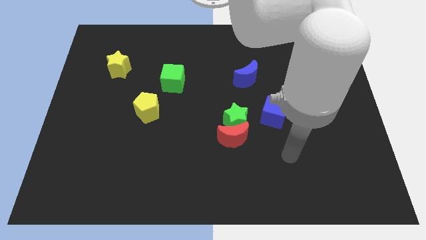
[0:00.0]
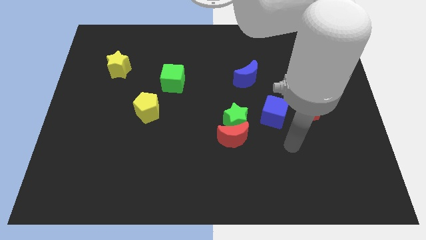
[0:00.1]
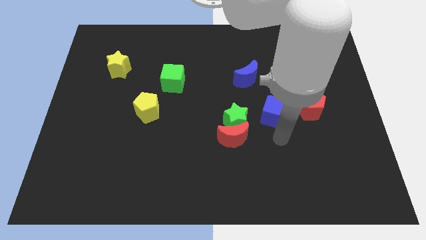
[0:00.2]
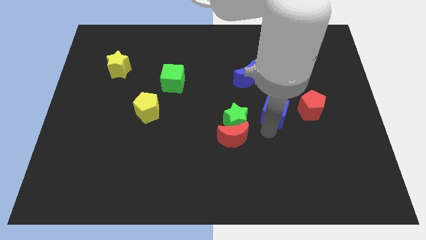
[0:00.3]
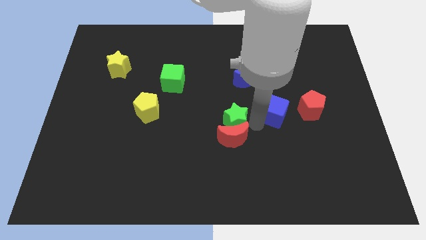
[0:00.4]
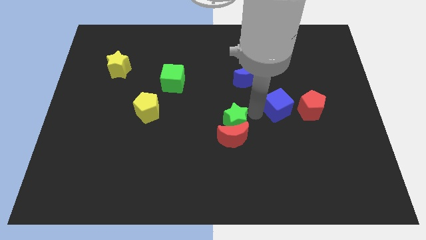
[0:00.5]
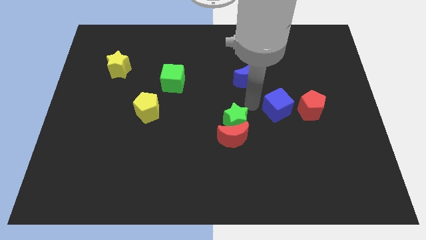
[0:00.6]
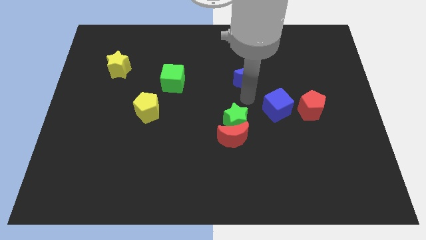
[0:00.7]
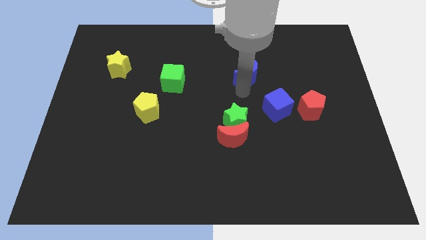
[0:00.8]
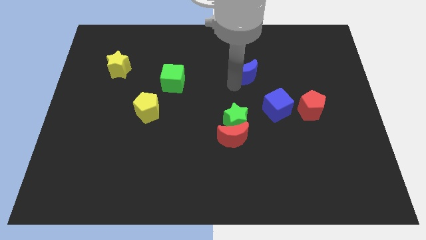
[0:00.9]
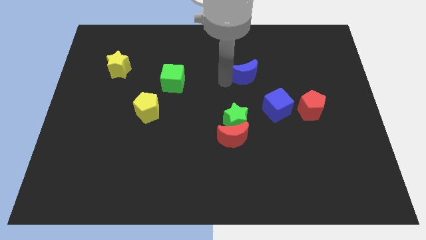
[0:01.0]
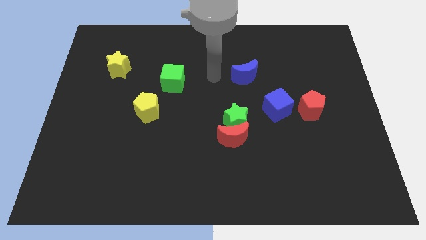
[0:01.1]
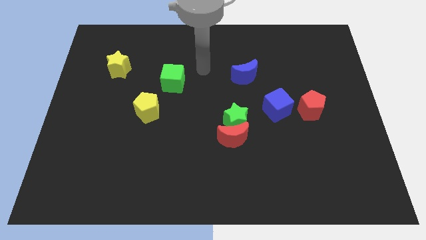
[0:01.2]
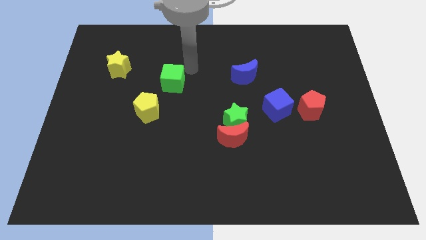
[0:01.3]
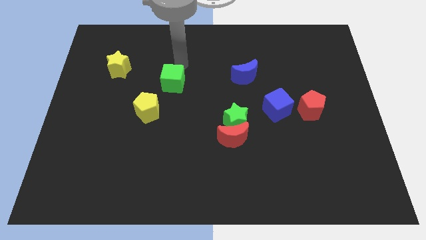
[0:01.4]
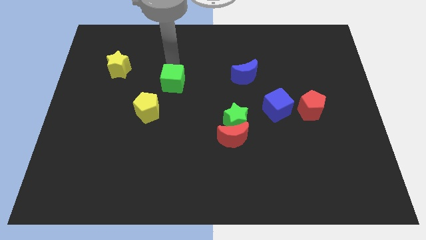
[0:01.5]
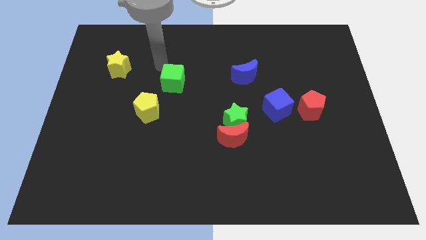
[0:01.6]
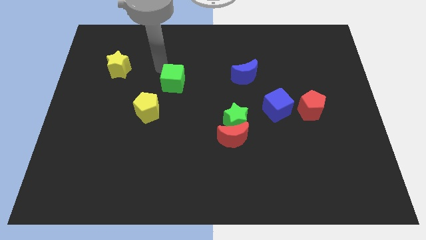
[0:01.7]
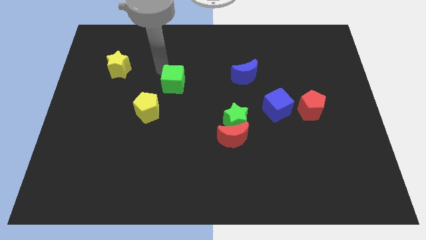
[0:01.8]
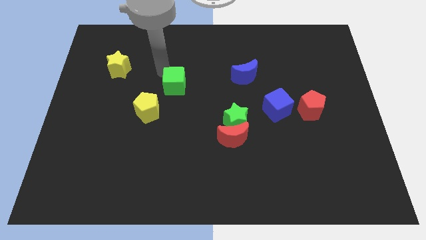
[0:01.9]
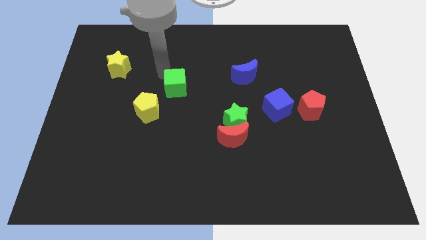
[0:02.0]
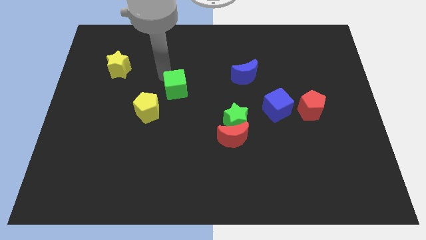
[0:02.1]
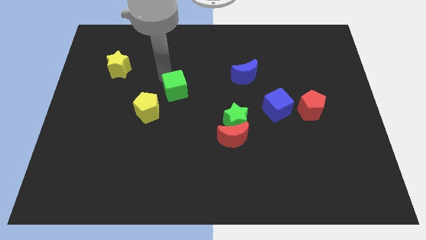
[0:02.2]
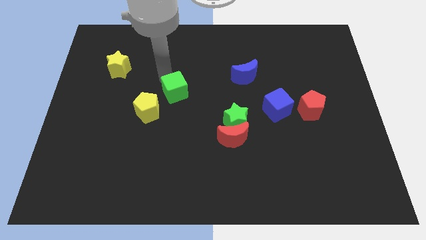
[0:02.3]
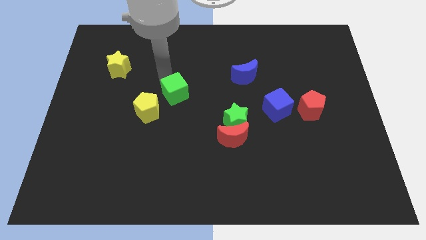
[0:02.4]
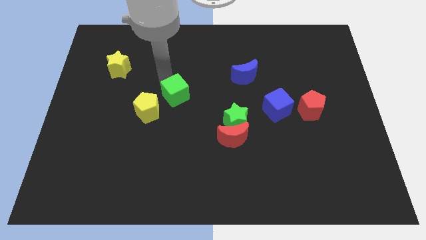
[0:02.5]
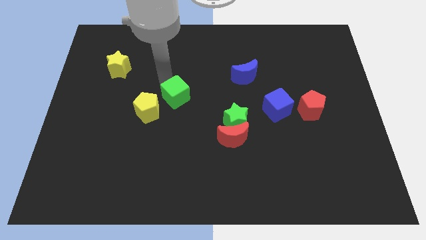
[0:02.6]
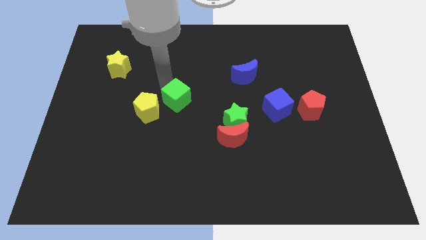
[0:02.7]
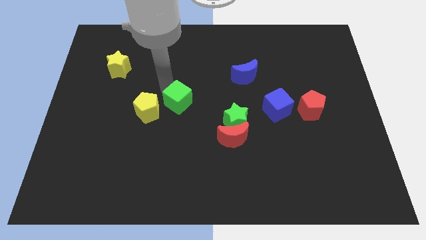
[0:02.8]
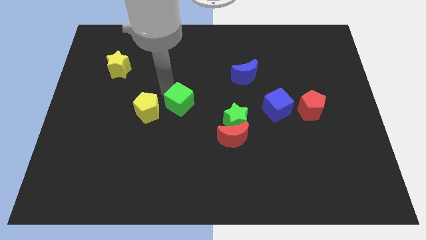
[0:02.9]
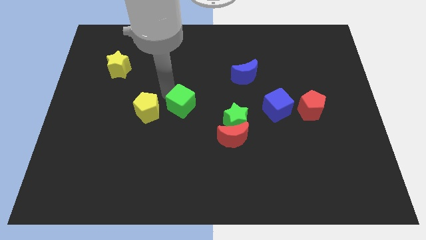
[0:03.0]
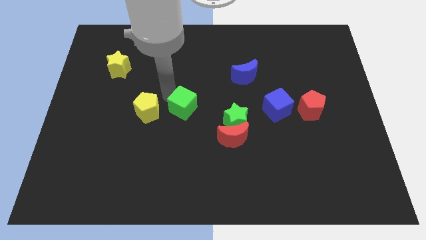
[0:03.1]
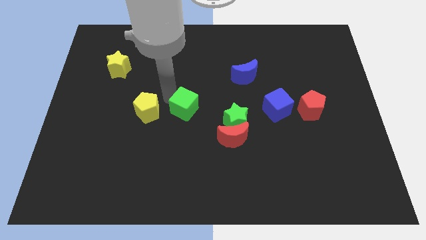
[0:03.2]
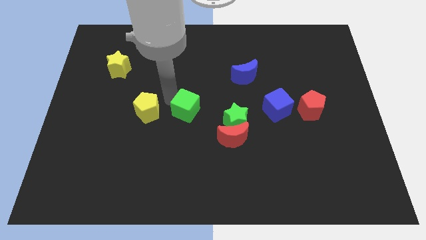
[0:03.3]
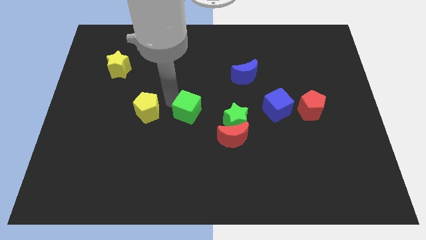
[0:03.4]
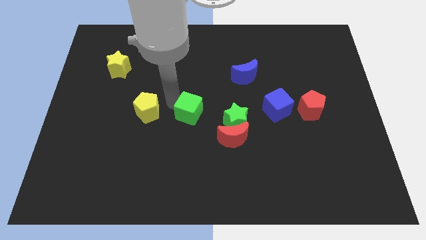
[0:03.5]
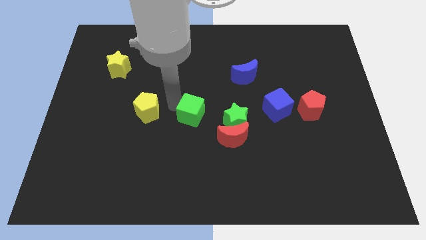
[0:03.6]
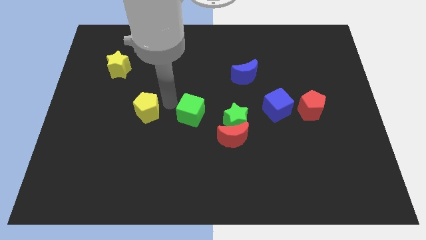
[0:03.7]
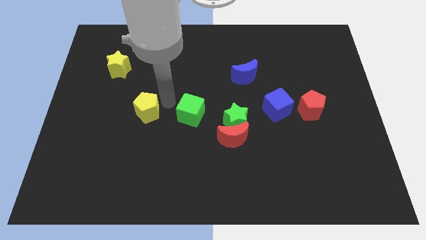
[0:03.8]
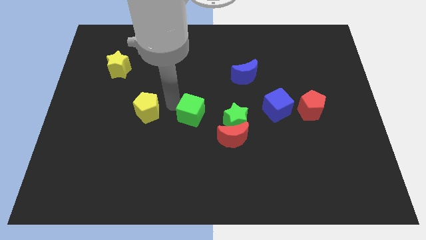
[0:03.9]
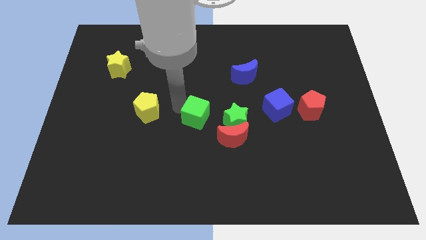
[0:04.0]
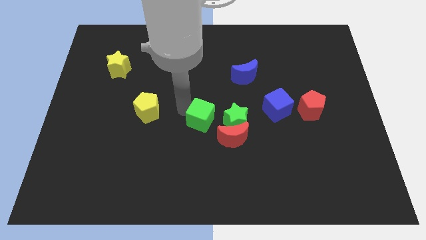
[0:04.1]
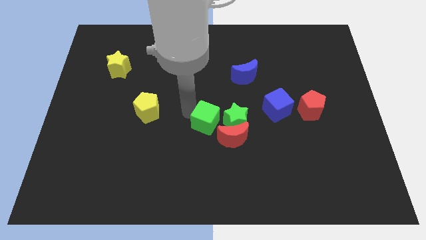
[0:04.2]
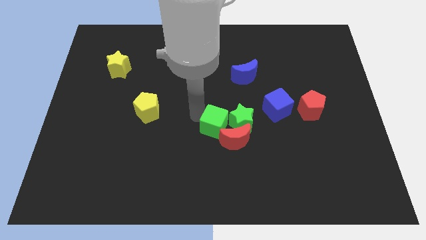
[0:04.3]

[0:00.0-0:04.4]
slide the green cube close to the red moon

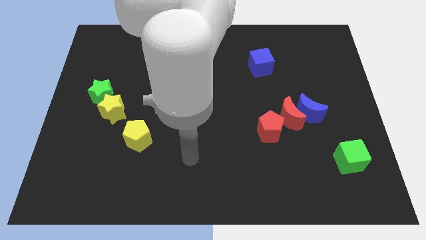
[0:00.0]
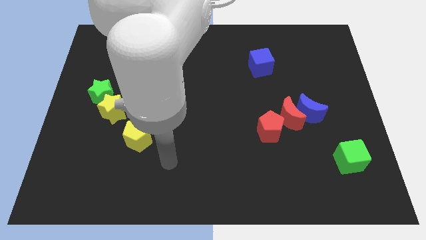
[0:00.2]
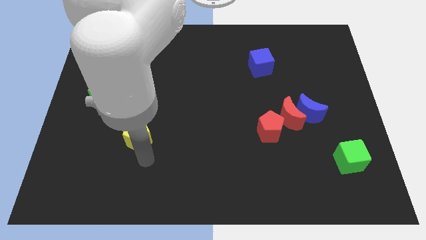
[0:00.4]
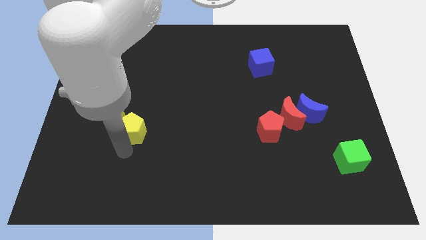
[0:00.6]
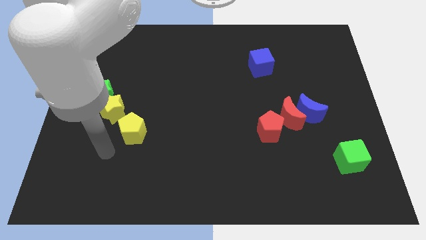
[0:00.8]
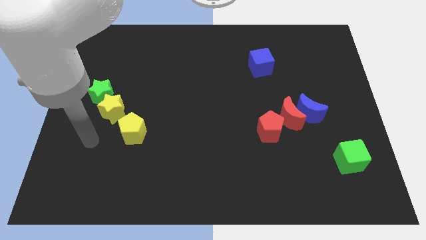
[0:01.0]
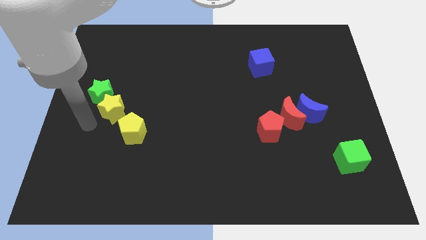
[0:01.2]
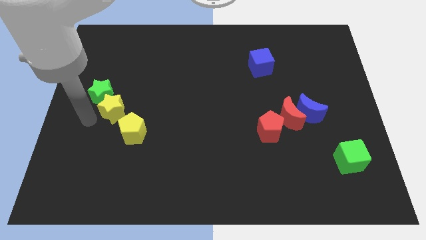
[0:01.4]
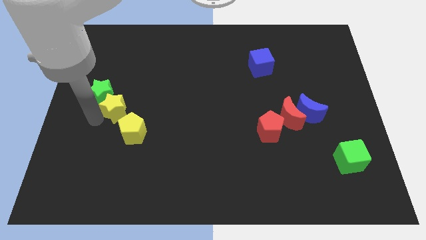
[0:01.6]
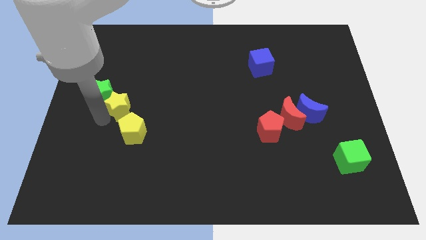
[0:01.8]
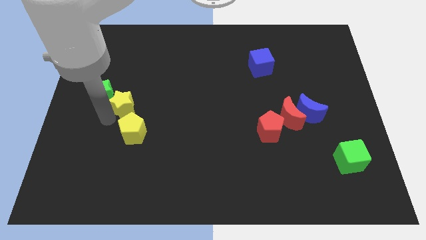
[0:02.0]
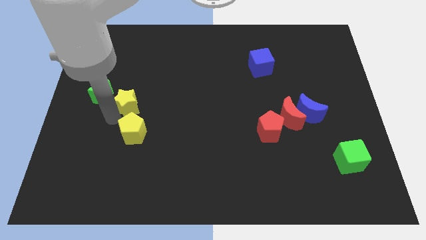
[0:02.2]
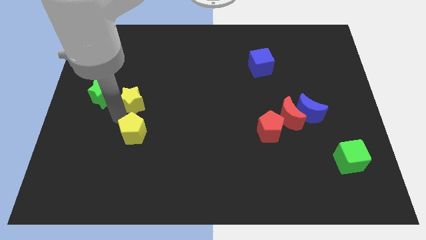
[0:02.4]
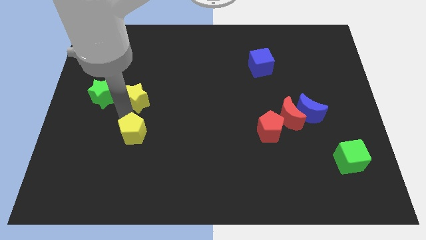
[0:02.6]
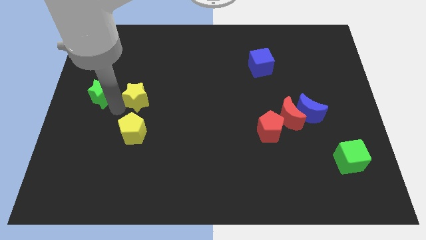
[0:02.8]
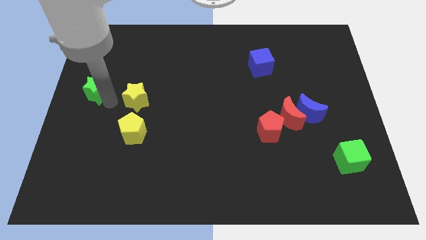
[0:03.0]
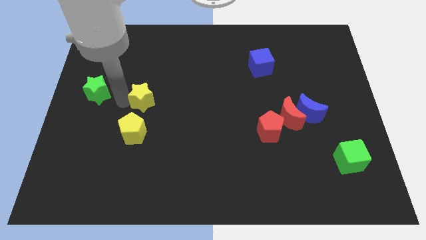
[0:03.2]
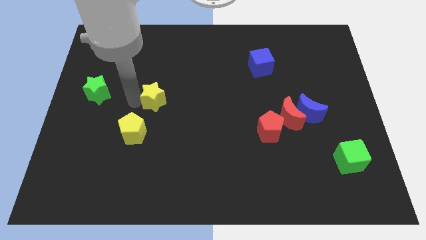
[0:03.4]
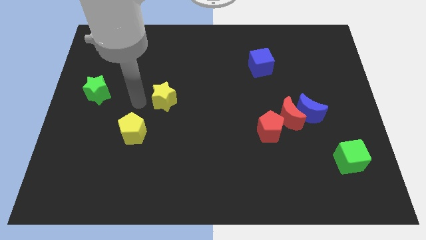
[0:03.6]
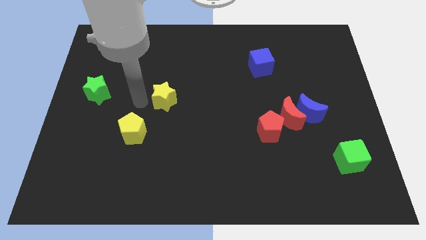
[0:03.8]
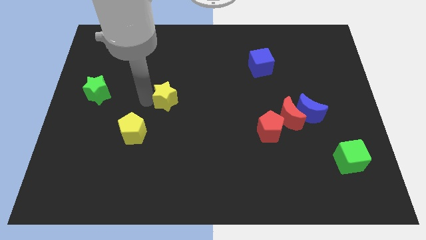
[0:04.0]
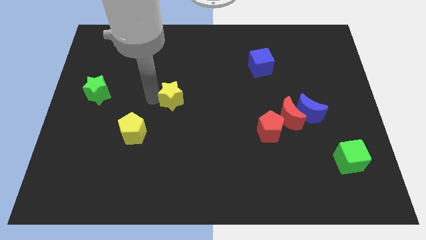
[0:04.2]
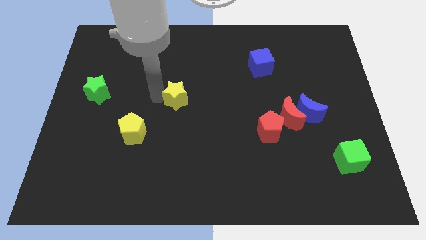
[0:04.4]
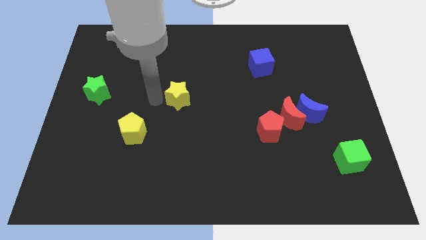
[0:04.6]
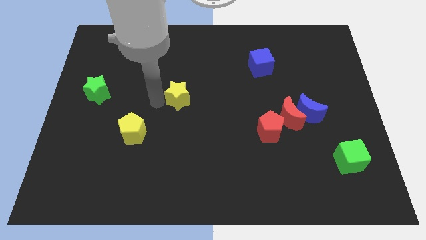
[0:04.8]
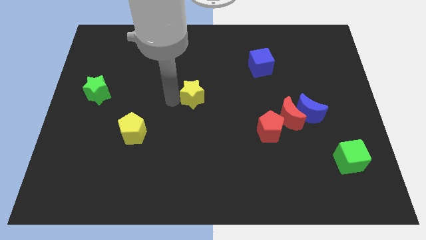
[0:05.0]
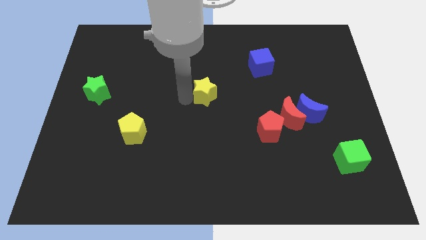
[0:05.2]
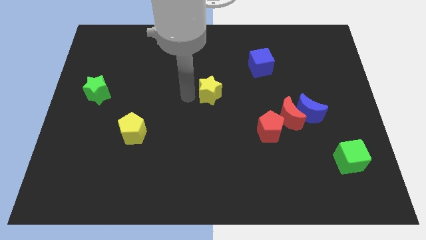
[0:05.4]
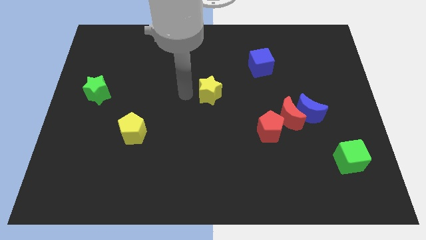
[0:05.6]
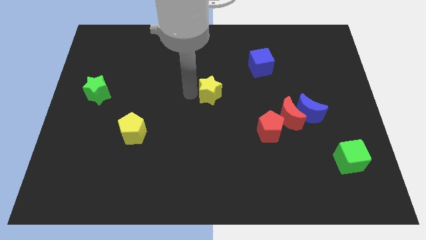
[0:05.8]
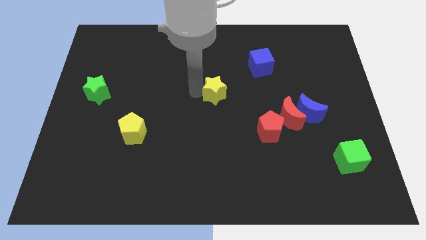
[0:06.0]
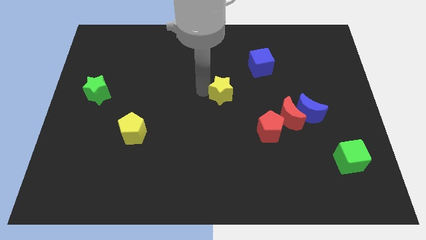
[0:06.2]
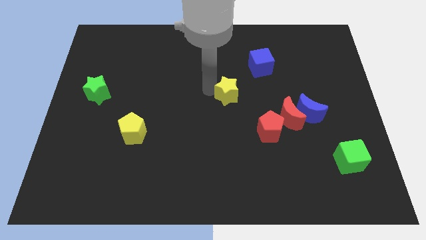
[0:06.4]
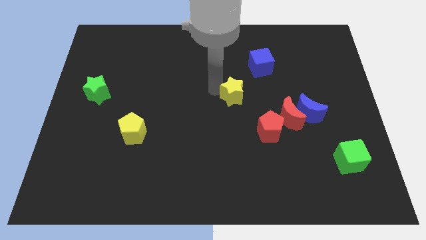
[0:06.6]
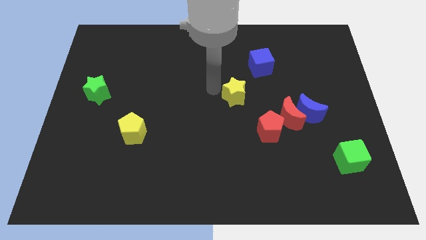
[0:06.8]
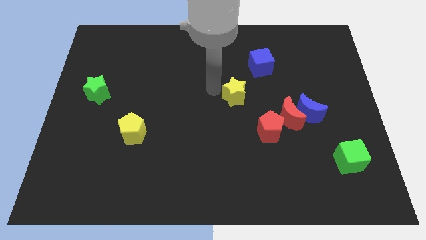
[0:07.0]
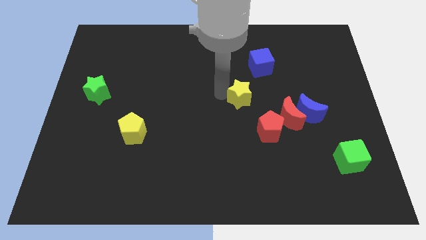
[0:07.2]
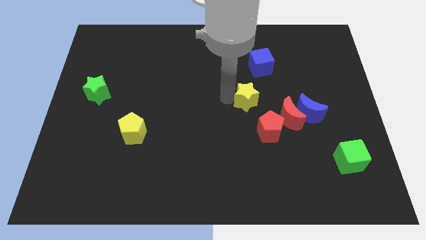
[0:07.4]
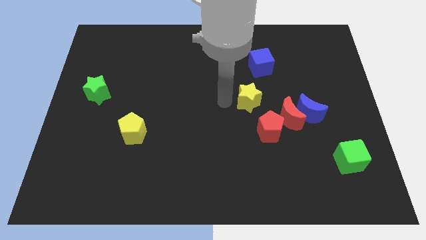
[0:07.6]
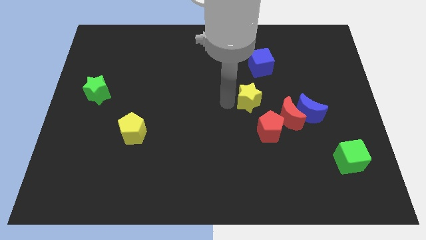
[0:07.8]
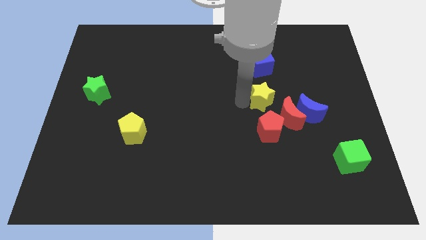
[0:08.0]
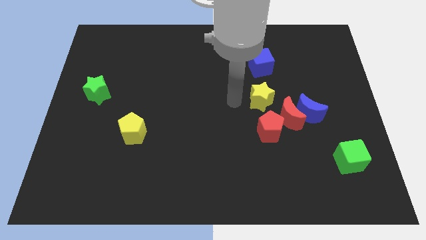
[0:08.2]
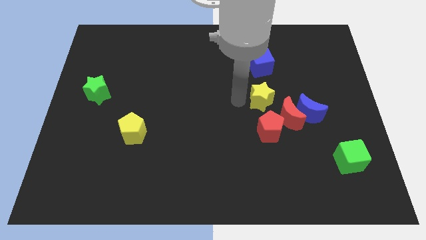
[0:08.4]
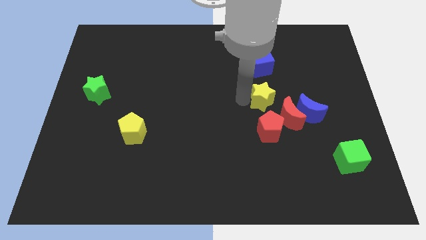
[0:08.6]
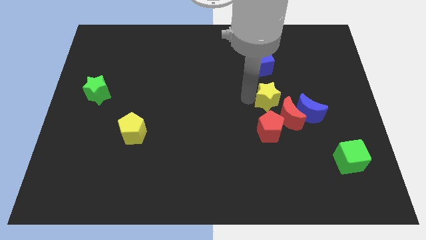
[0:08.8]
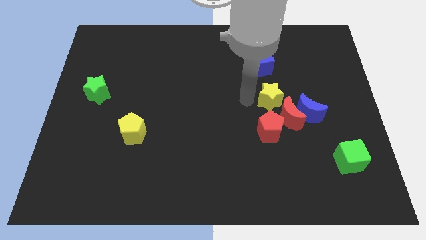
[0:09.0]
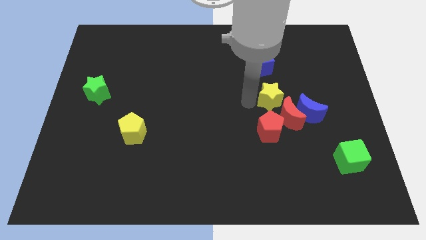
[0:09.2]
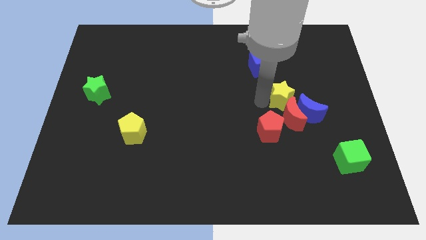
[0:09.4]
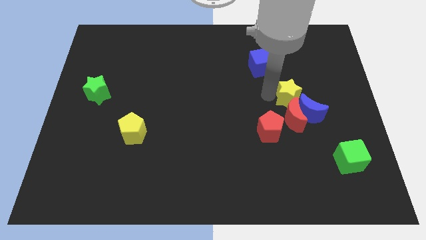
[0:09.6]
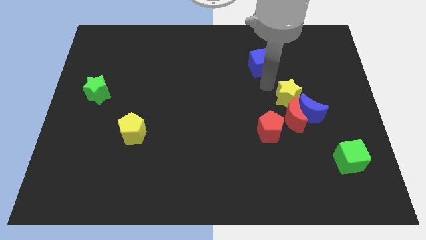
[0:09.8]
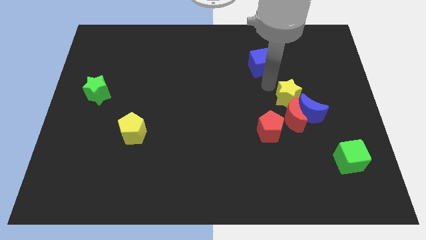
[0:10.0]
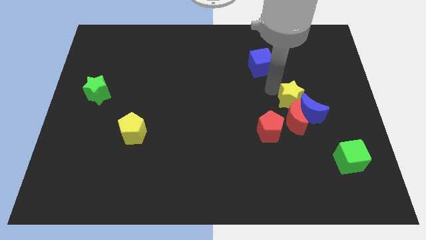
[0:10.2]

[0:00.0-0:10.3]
slide the yellow star towards the blue moon
